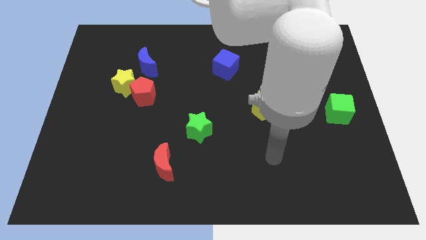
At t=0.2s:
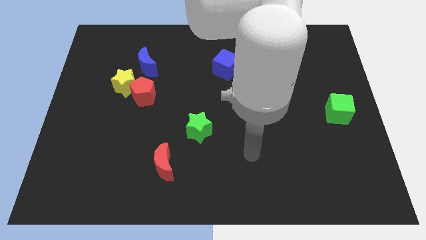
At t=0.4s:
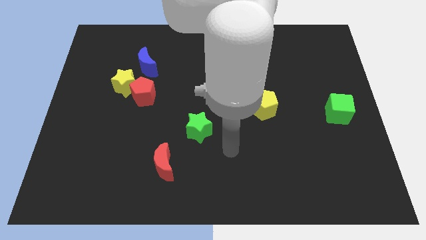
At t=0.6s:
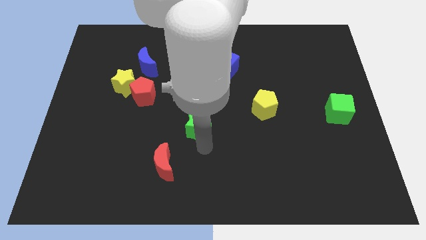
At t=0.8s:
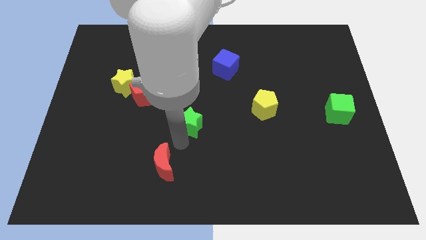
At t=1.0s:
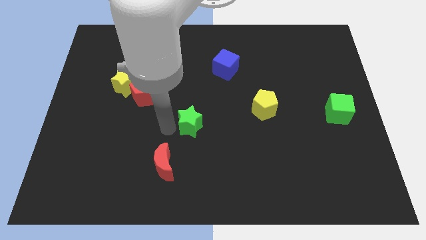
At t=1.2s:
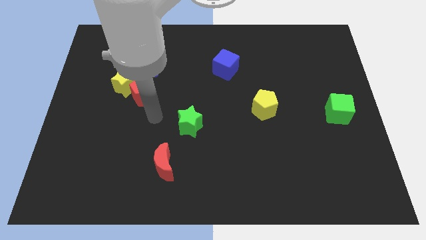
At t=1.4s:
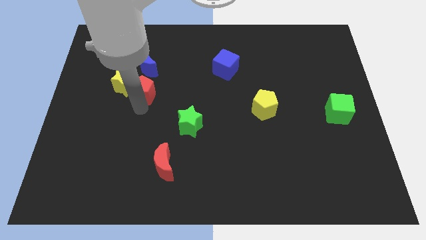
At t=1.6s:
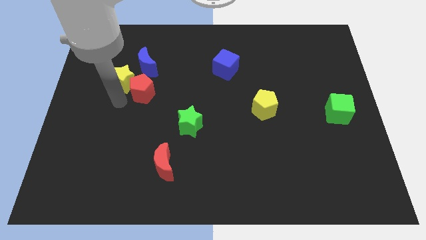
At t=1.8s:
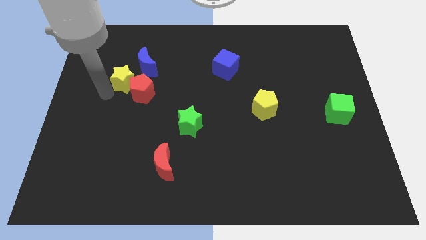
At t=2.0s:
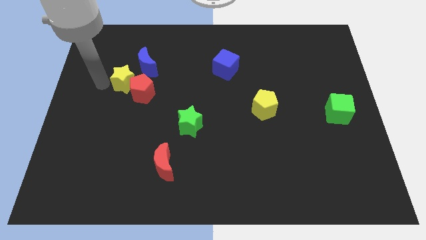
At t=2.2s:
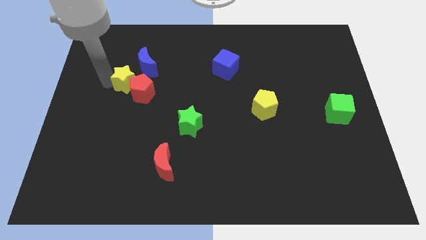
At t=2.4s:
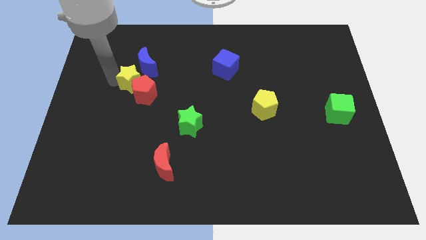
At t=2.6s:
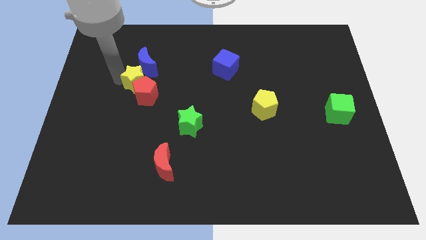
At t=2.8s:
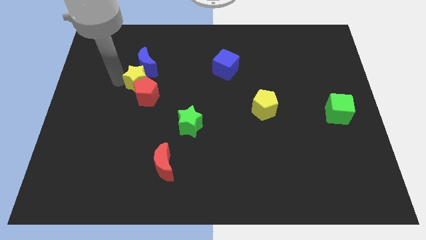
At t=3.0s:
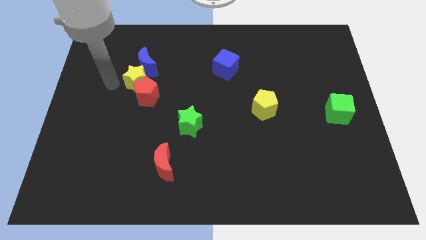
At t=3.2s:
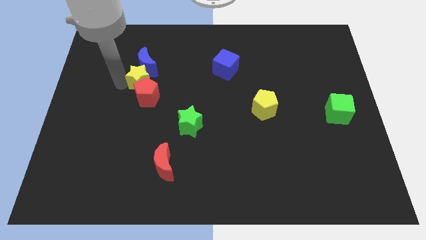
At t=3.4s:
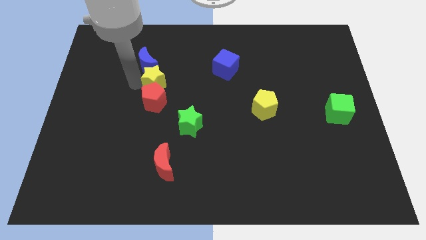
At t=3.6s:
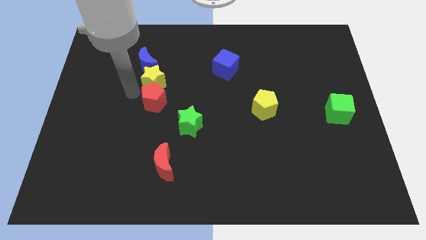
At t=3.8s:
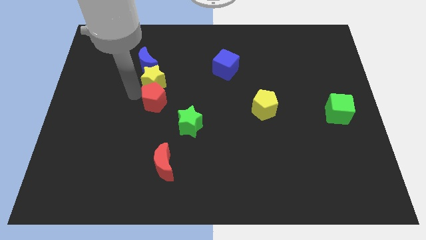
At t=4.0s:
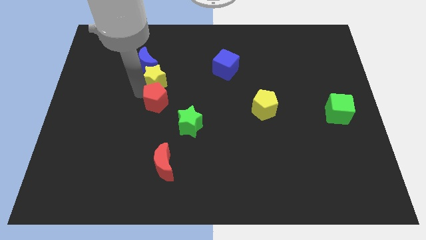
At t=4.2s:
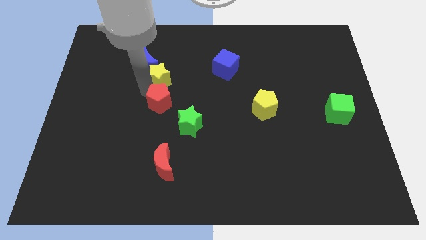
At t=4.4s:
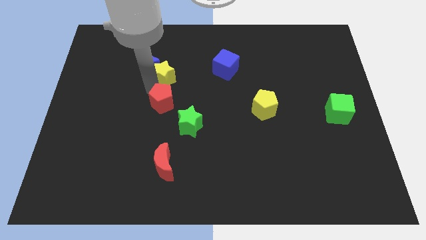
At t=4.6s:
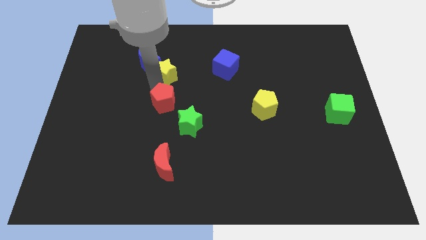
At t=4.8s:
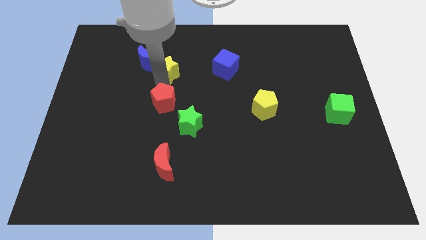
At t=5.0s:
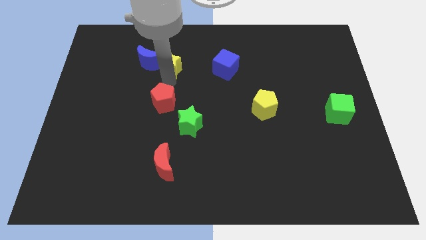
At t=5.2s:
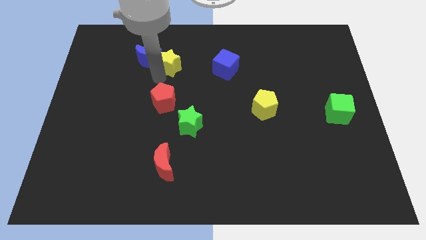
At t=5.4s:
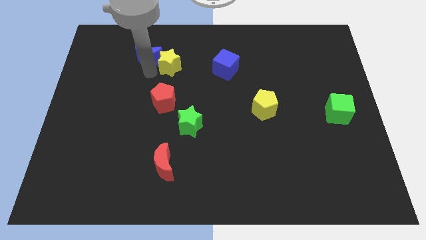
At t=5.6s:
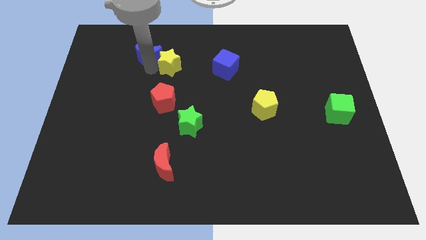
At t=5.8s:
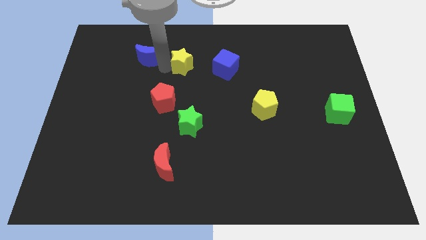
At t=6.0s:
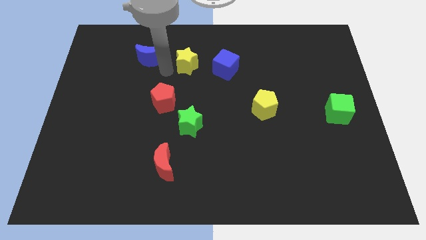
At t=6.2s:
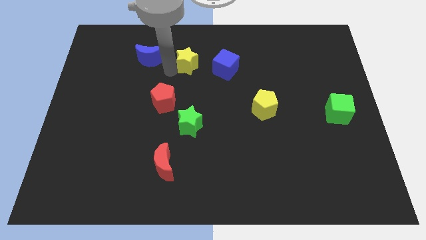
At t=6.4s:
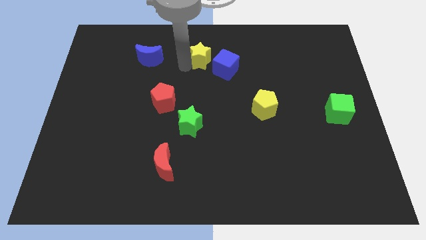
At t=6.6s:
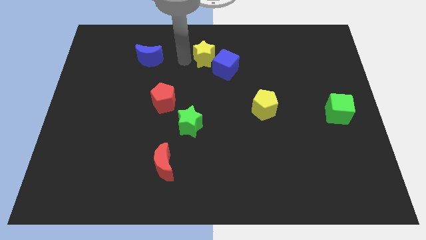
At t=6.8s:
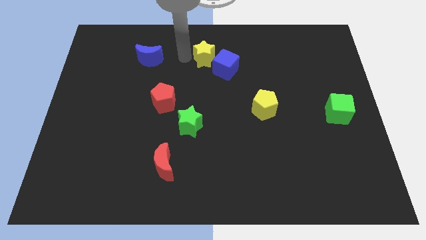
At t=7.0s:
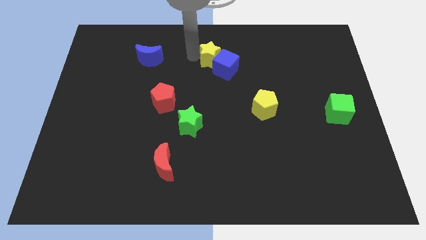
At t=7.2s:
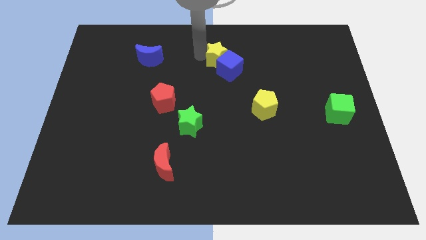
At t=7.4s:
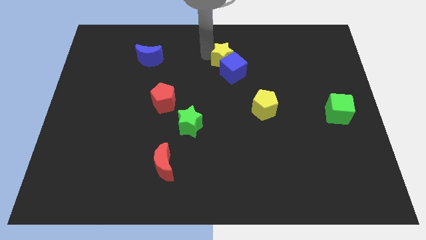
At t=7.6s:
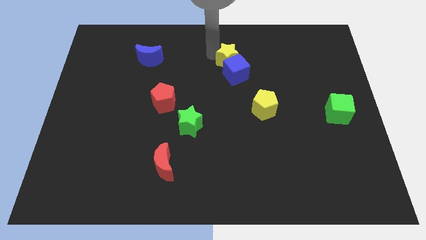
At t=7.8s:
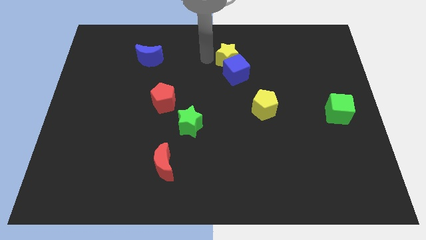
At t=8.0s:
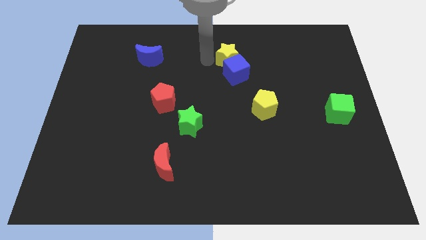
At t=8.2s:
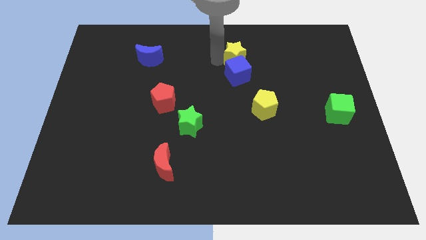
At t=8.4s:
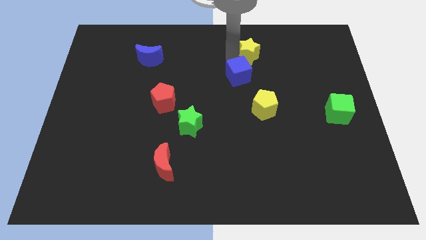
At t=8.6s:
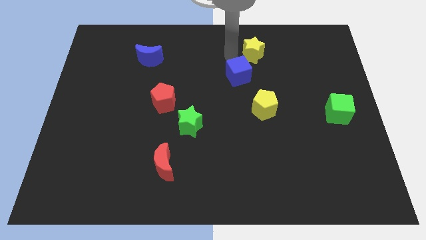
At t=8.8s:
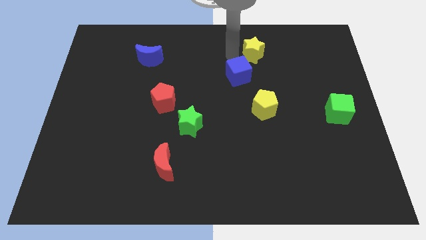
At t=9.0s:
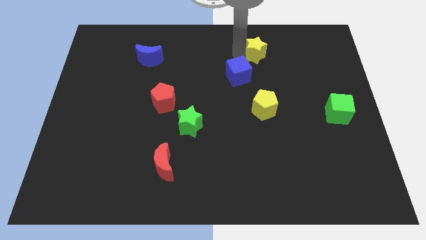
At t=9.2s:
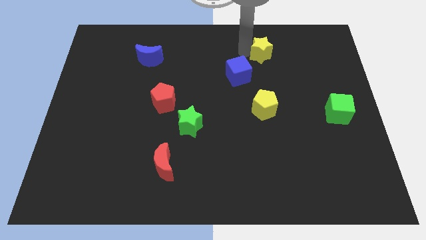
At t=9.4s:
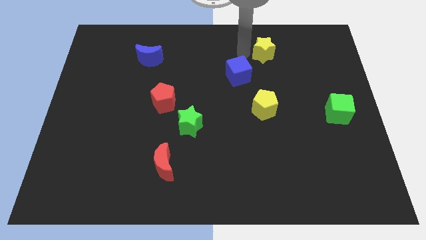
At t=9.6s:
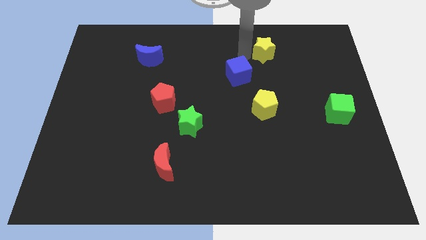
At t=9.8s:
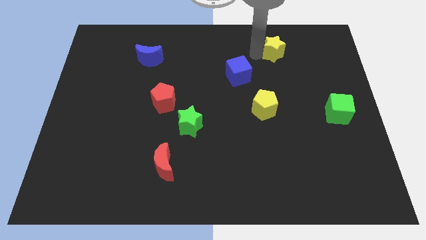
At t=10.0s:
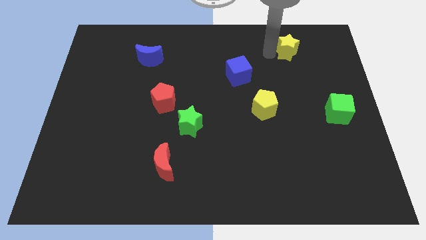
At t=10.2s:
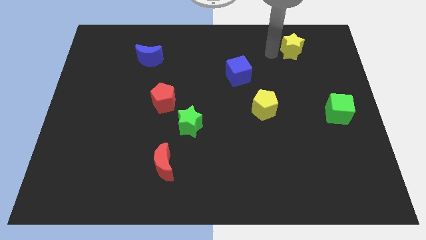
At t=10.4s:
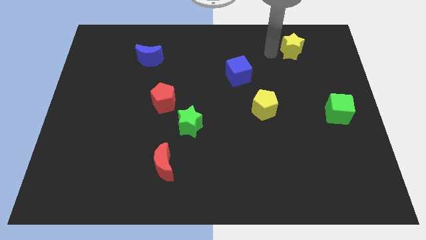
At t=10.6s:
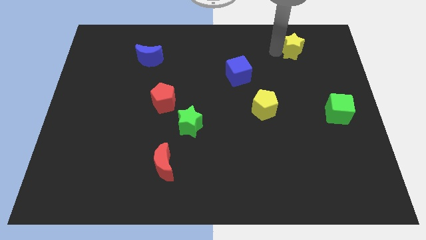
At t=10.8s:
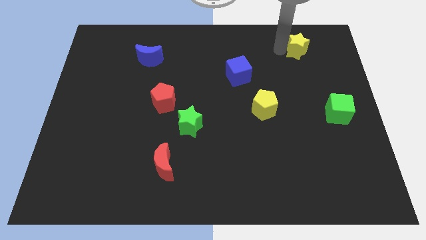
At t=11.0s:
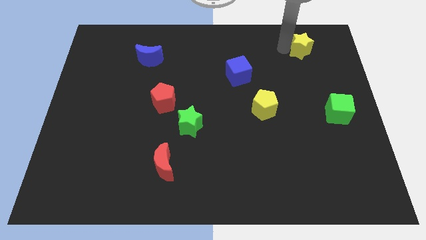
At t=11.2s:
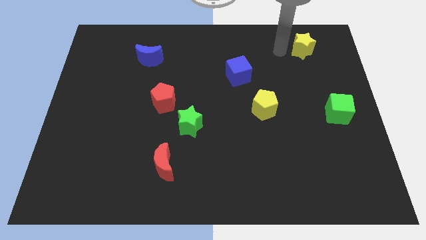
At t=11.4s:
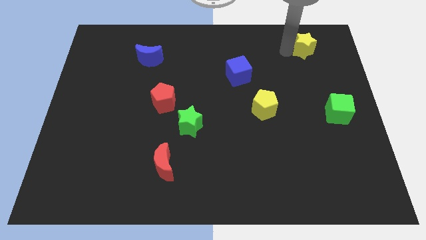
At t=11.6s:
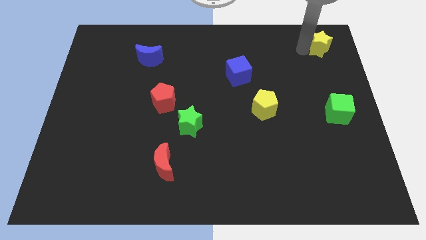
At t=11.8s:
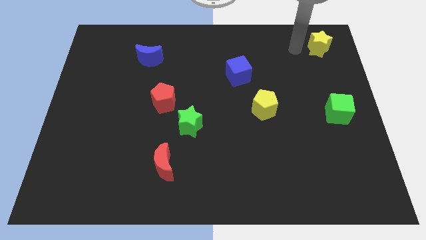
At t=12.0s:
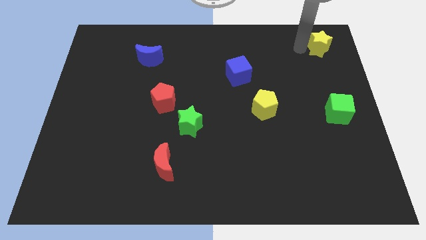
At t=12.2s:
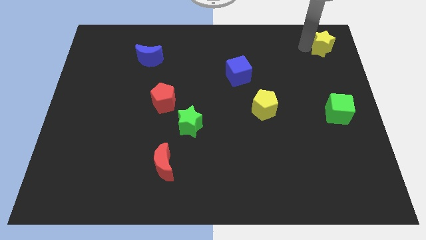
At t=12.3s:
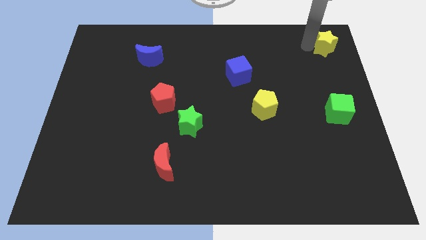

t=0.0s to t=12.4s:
put the yellow star to the top right corner
